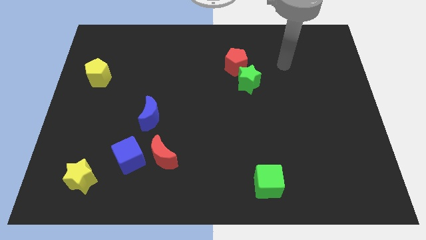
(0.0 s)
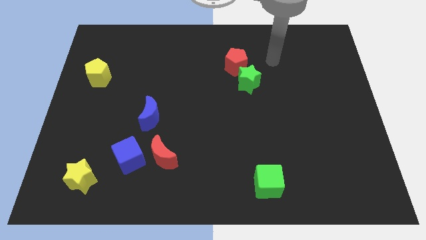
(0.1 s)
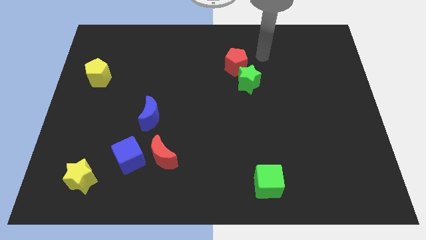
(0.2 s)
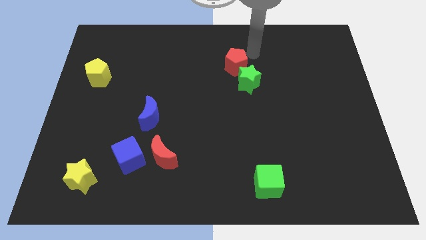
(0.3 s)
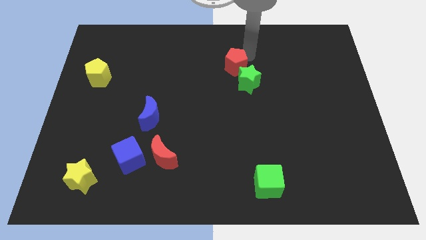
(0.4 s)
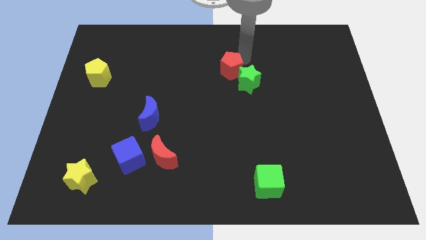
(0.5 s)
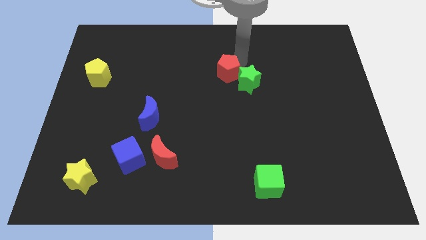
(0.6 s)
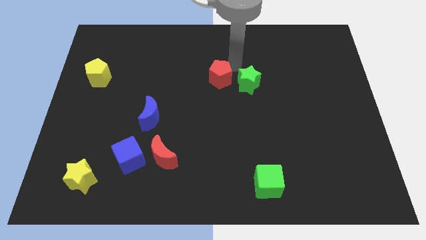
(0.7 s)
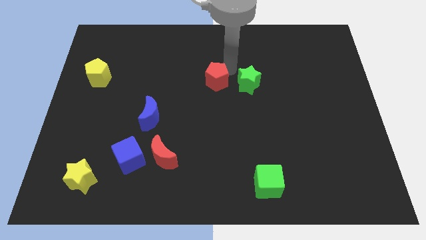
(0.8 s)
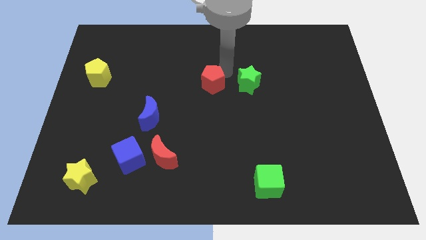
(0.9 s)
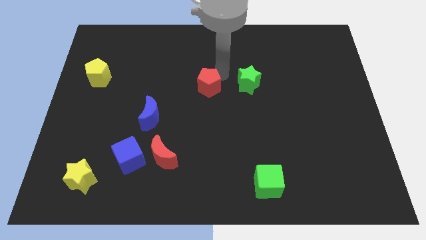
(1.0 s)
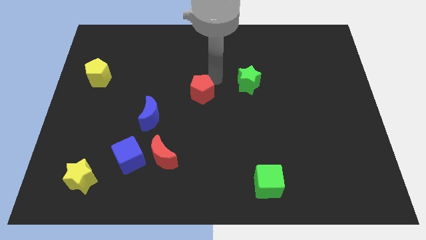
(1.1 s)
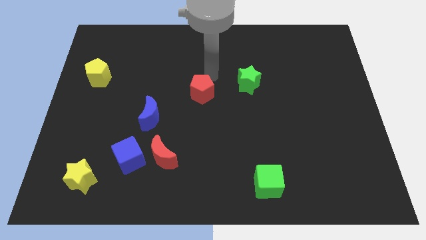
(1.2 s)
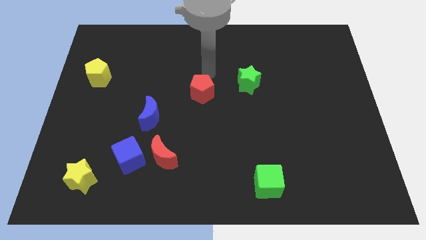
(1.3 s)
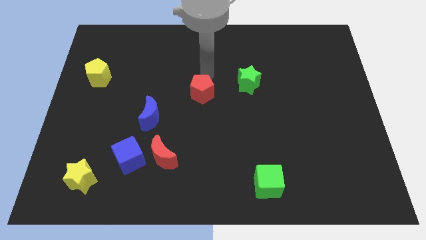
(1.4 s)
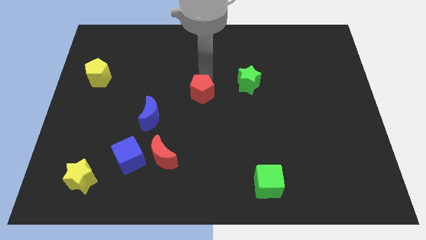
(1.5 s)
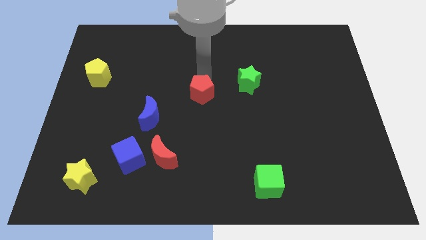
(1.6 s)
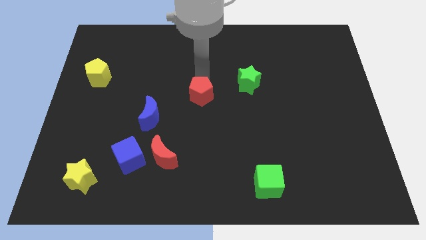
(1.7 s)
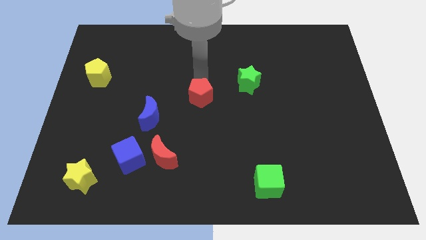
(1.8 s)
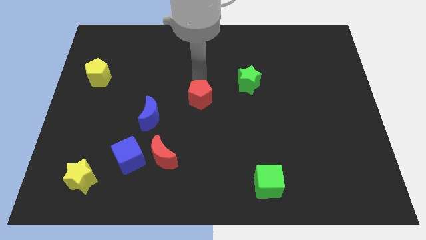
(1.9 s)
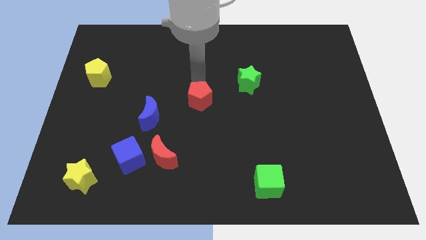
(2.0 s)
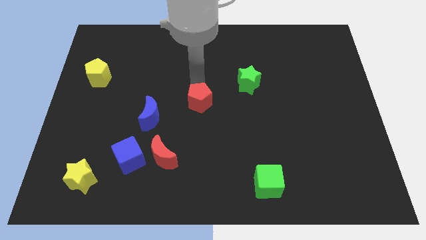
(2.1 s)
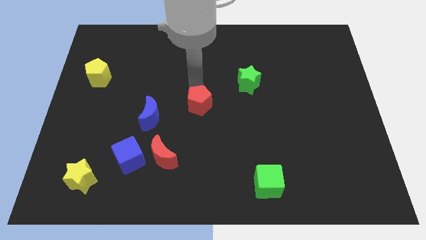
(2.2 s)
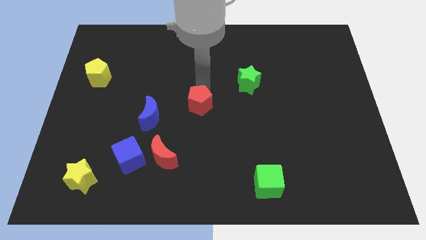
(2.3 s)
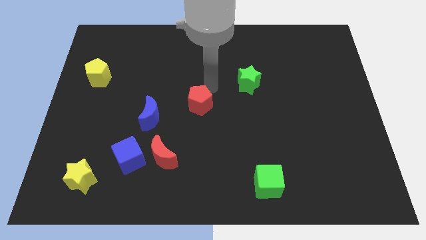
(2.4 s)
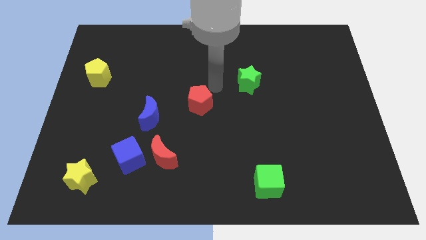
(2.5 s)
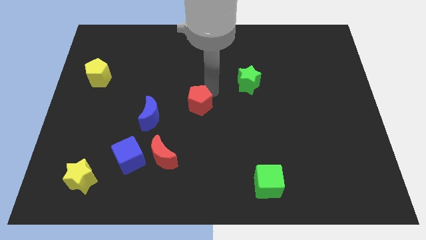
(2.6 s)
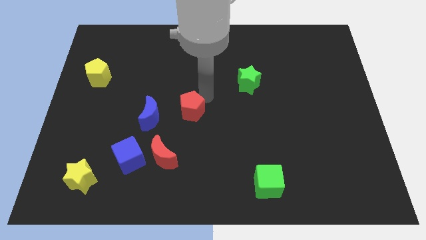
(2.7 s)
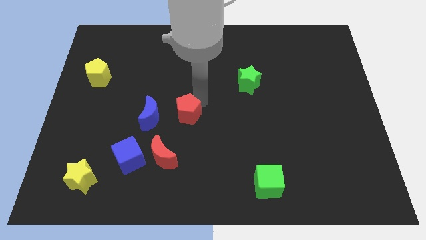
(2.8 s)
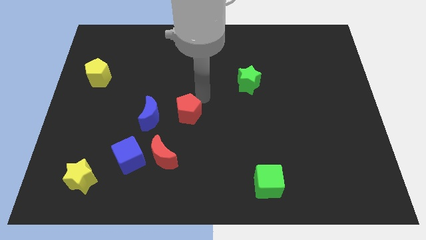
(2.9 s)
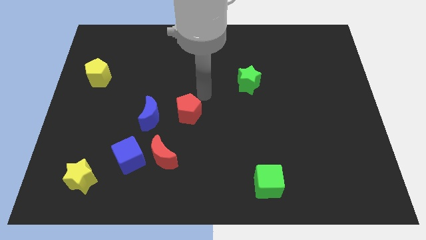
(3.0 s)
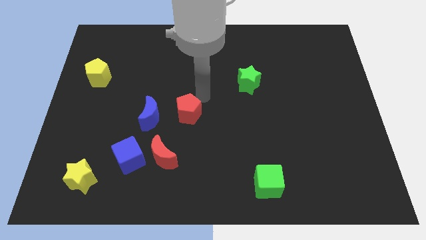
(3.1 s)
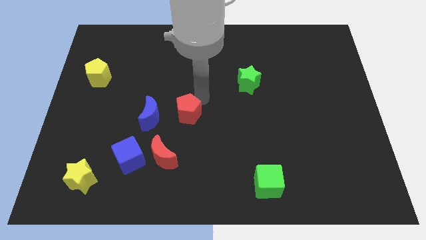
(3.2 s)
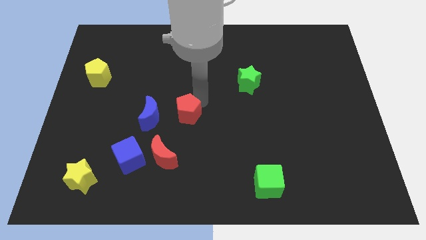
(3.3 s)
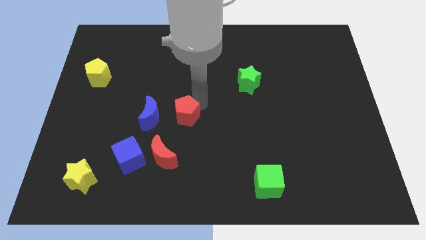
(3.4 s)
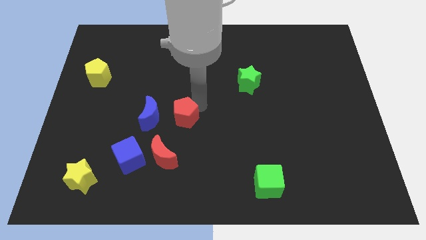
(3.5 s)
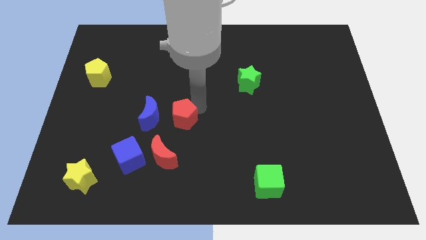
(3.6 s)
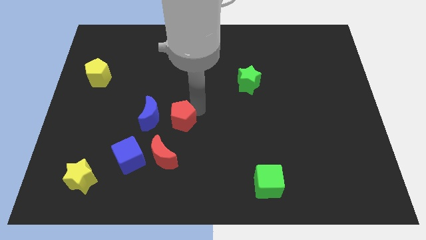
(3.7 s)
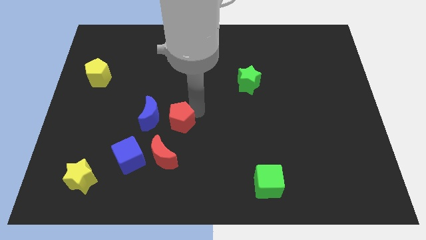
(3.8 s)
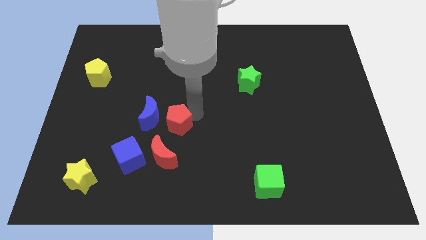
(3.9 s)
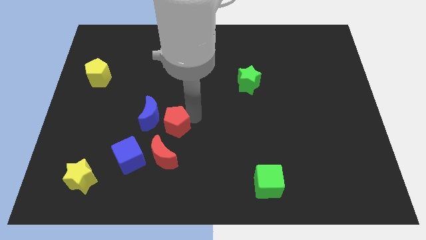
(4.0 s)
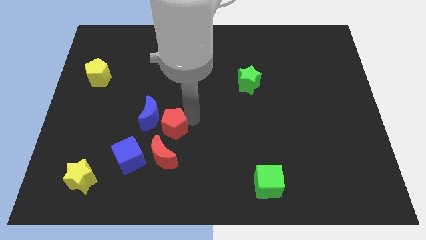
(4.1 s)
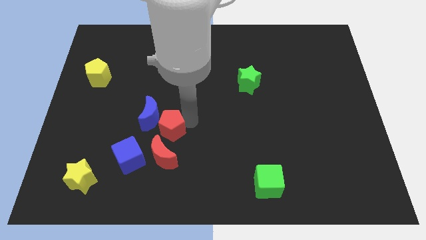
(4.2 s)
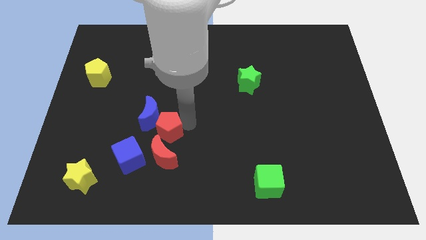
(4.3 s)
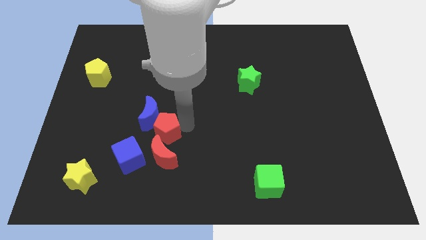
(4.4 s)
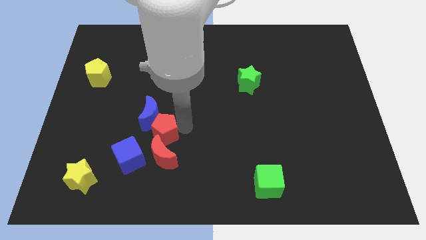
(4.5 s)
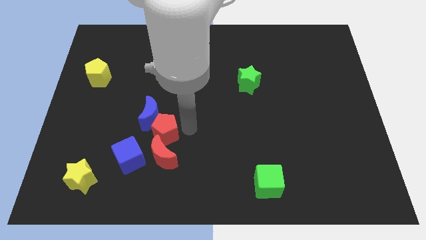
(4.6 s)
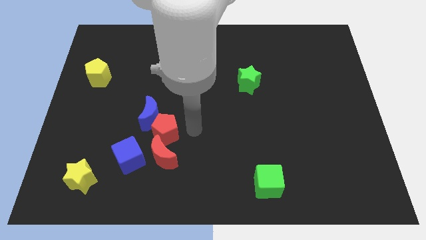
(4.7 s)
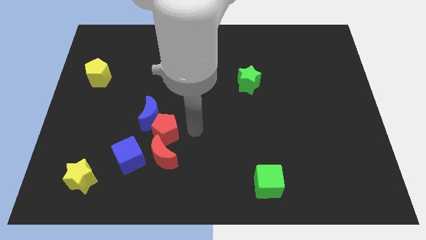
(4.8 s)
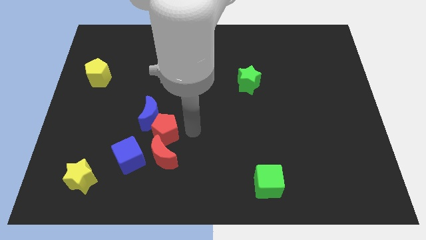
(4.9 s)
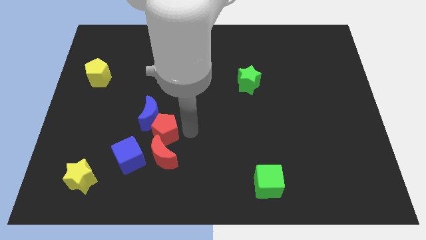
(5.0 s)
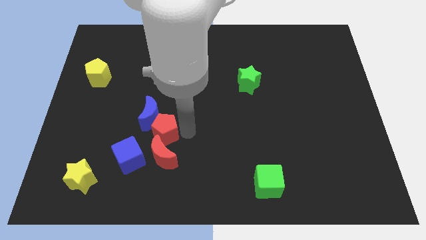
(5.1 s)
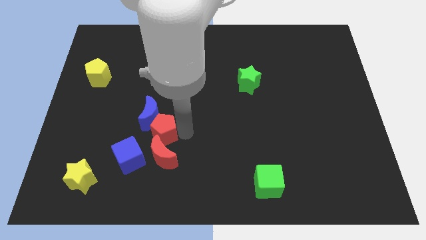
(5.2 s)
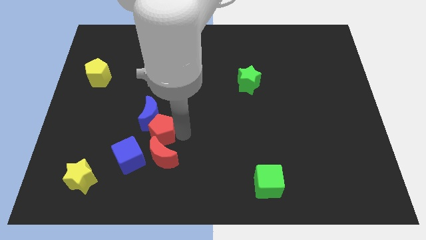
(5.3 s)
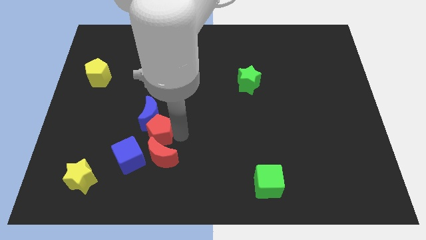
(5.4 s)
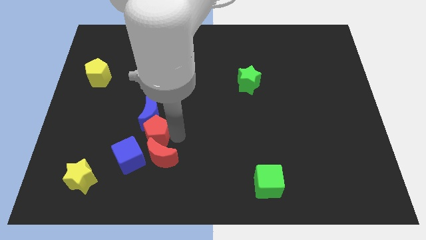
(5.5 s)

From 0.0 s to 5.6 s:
move the red pentagon diagonally down and to the left of the blue moon

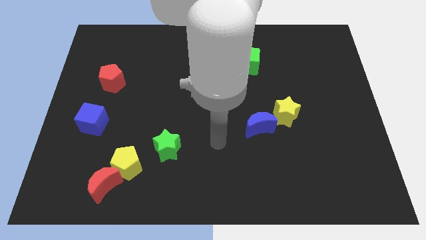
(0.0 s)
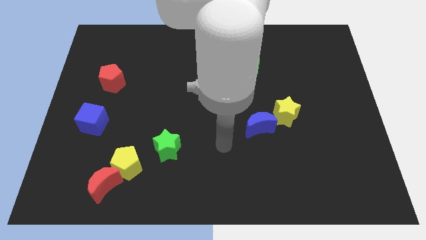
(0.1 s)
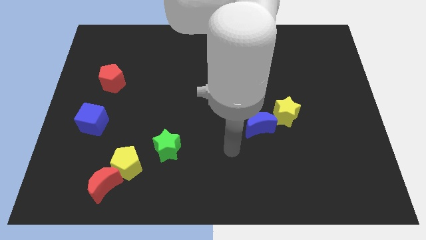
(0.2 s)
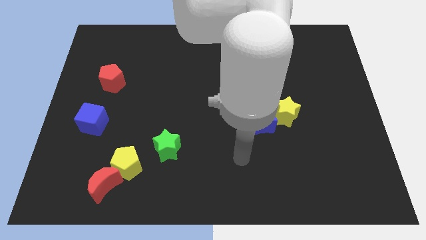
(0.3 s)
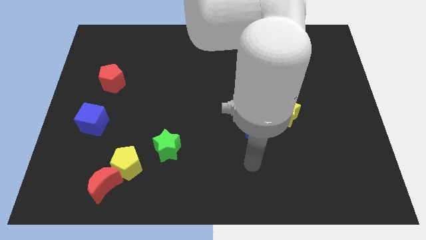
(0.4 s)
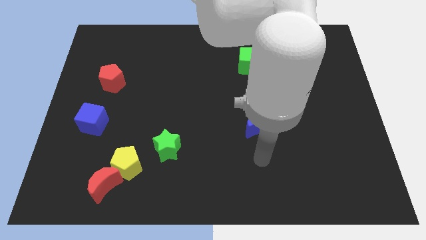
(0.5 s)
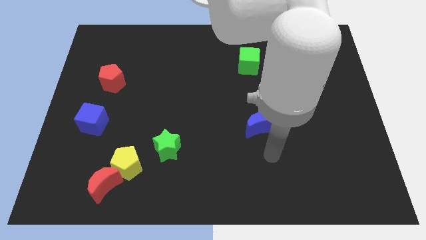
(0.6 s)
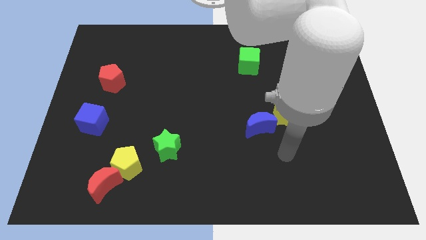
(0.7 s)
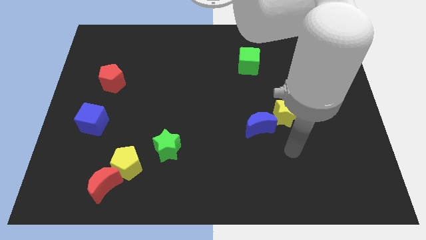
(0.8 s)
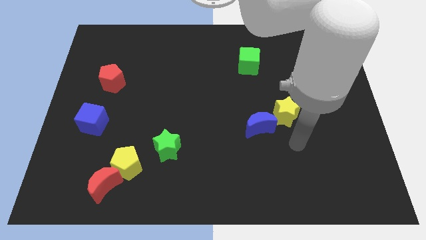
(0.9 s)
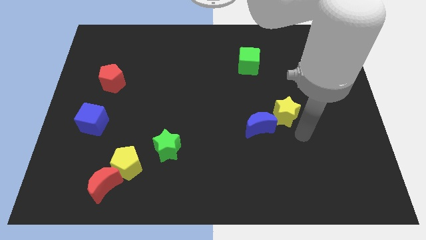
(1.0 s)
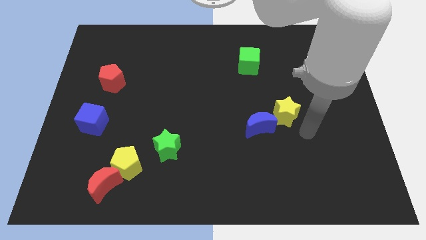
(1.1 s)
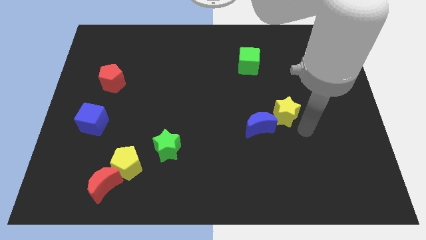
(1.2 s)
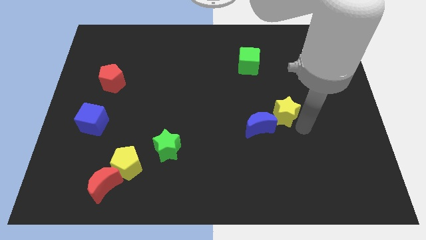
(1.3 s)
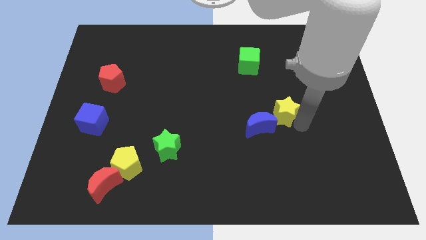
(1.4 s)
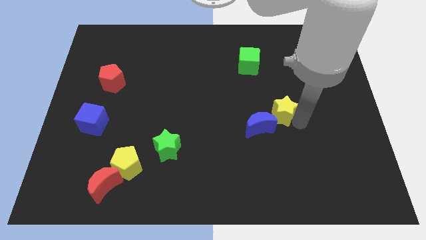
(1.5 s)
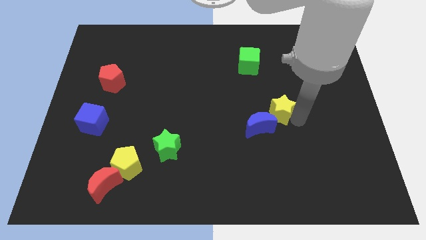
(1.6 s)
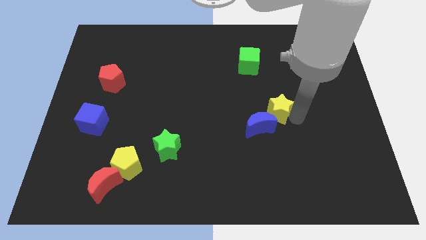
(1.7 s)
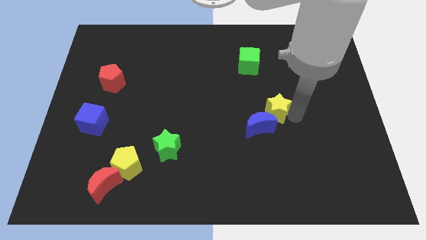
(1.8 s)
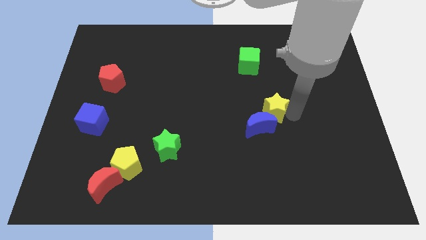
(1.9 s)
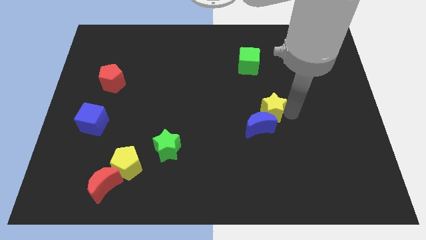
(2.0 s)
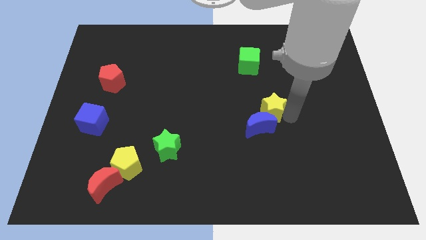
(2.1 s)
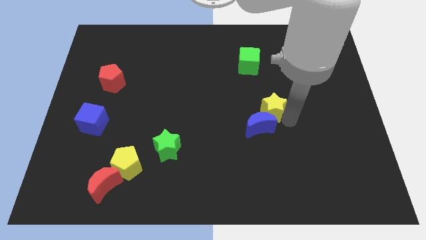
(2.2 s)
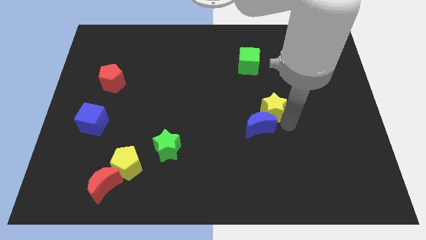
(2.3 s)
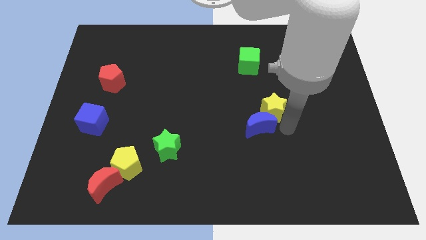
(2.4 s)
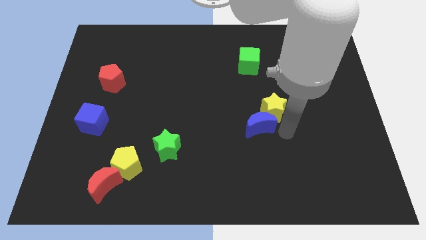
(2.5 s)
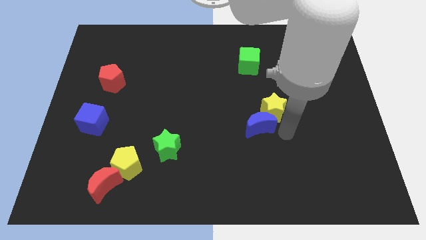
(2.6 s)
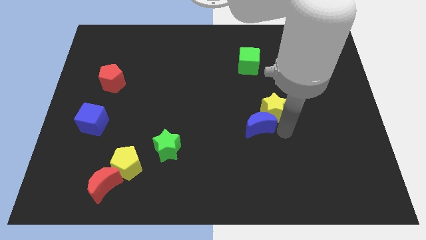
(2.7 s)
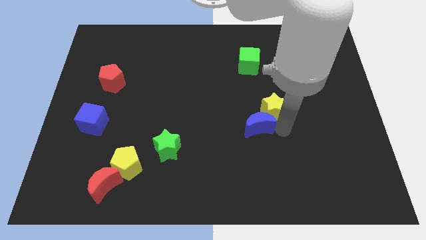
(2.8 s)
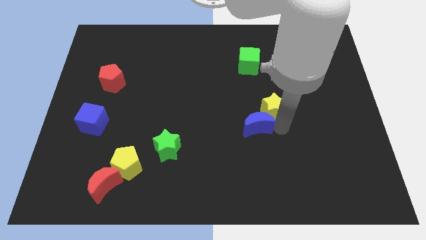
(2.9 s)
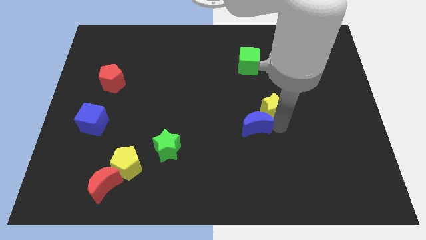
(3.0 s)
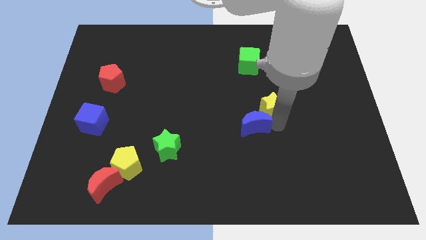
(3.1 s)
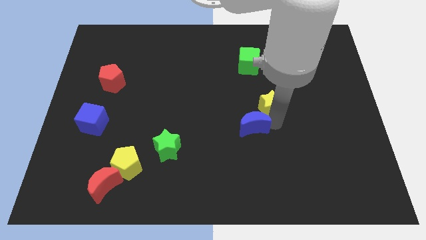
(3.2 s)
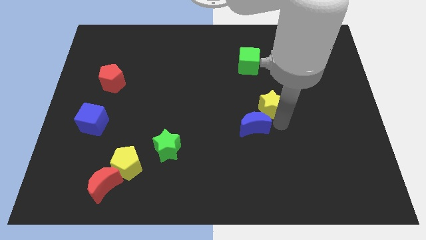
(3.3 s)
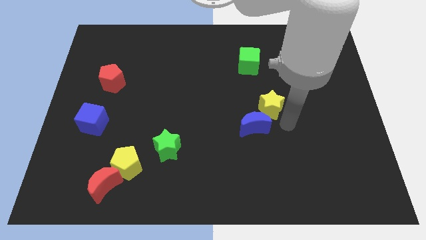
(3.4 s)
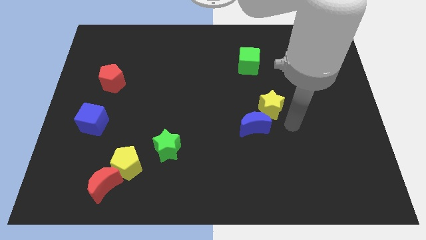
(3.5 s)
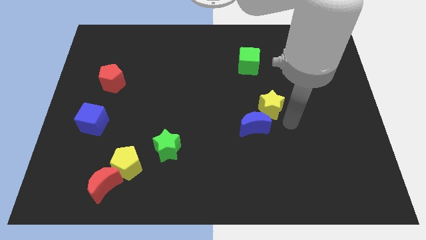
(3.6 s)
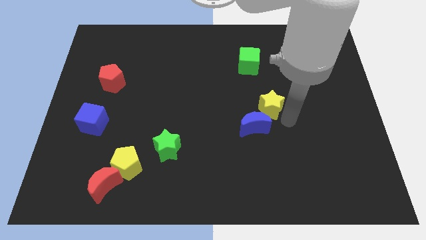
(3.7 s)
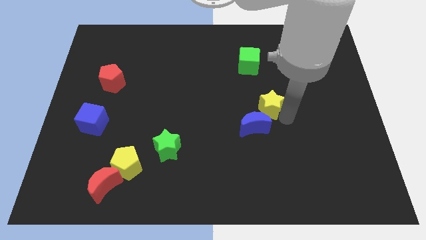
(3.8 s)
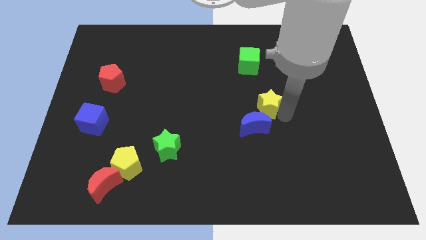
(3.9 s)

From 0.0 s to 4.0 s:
push the yellow star below the green cube
